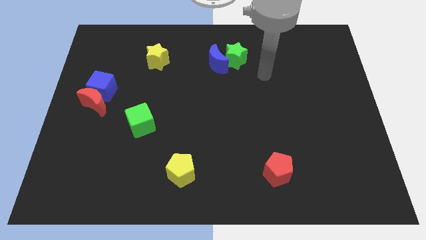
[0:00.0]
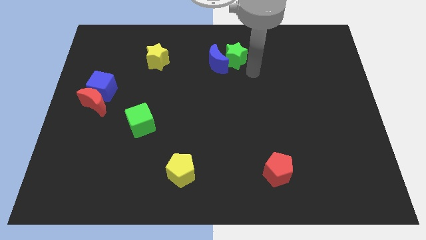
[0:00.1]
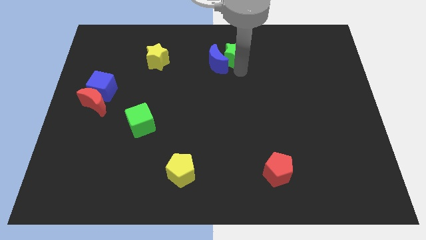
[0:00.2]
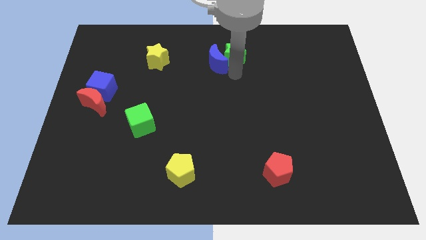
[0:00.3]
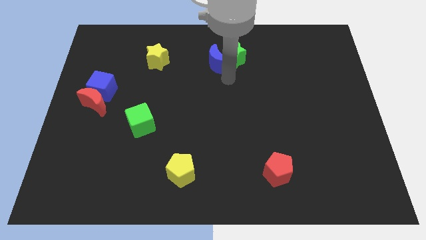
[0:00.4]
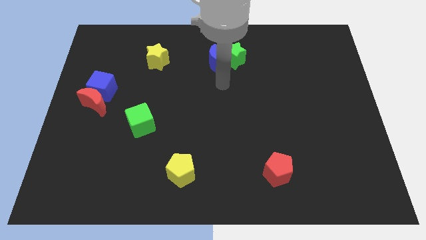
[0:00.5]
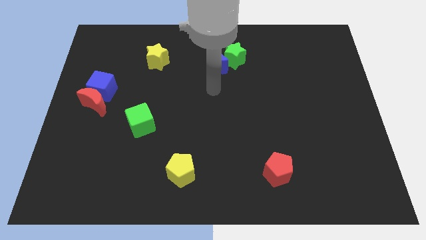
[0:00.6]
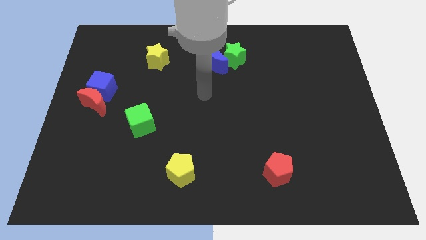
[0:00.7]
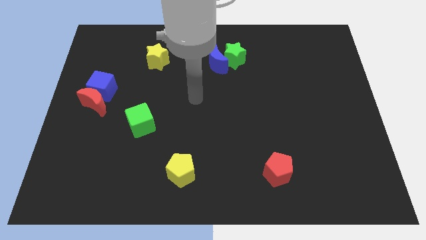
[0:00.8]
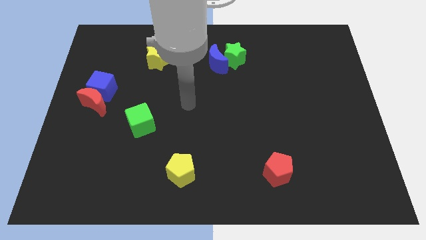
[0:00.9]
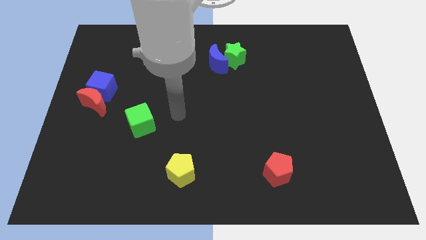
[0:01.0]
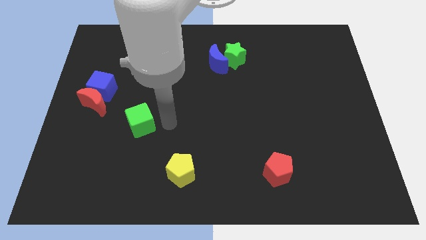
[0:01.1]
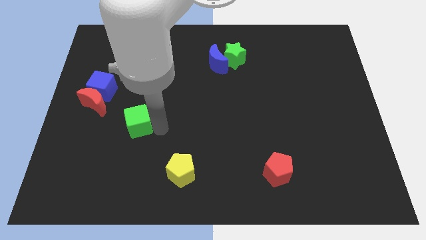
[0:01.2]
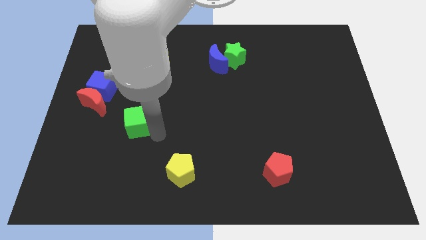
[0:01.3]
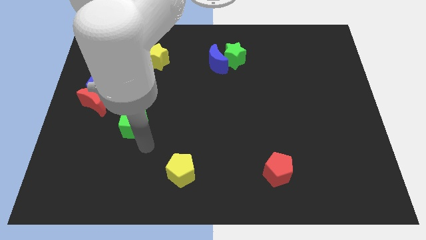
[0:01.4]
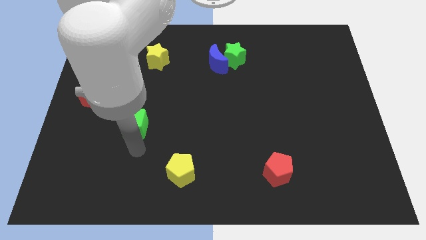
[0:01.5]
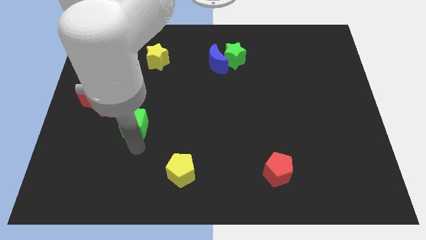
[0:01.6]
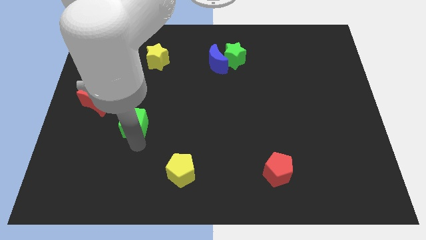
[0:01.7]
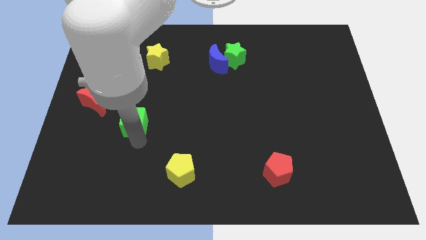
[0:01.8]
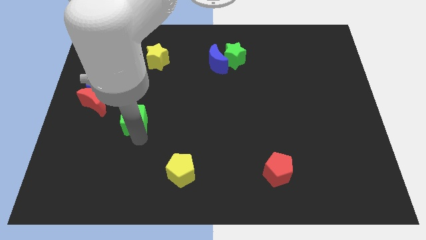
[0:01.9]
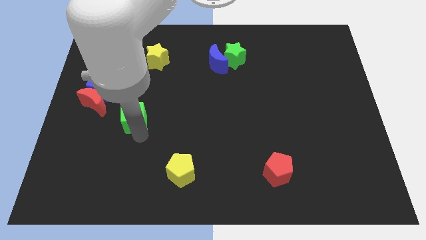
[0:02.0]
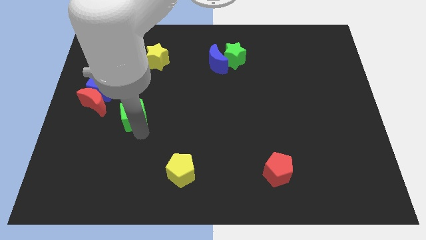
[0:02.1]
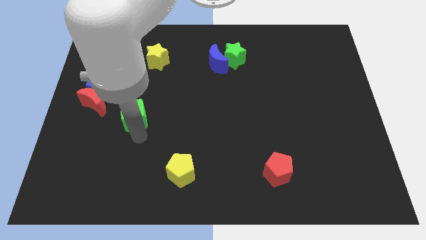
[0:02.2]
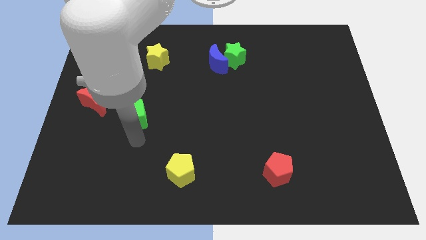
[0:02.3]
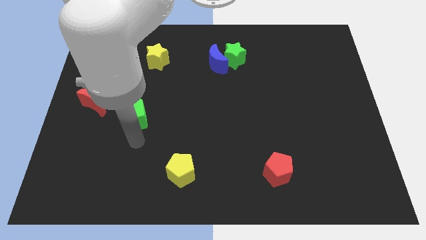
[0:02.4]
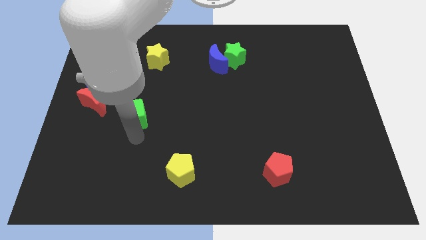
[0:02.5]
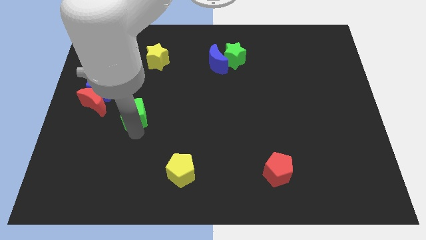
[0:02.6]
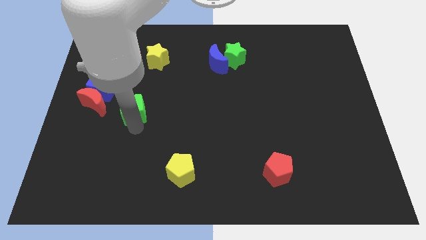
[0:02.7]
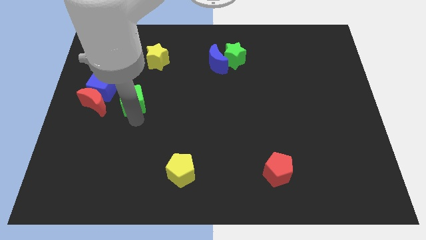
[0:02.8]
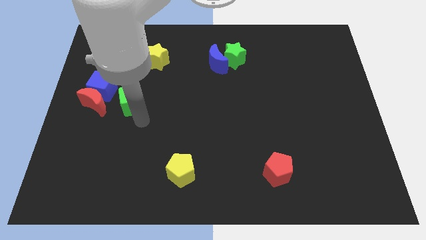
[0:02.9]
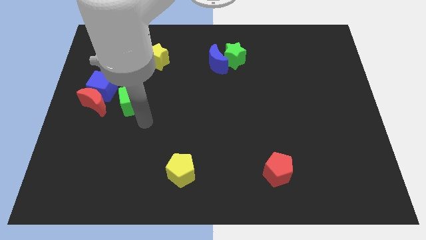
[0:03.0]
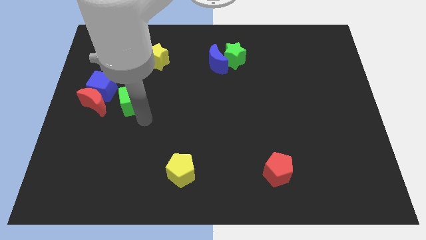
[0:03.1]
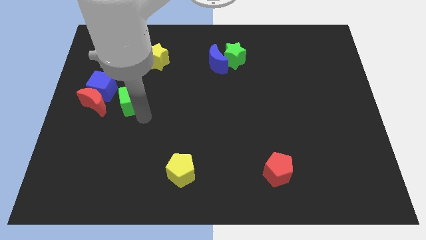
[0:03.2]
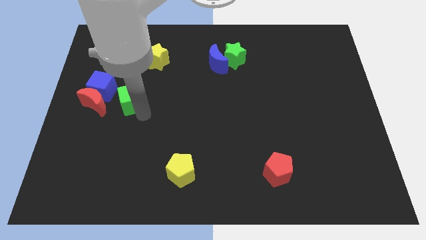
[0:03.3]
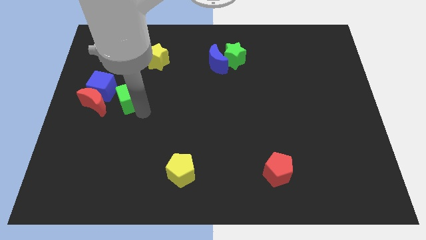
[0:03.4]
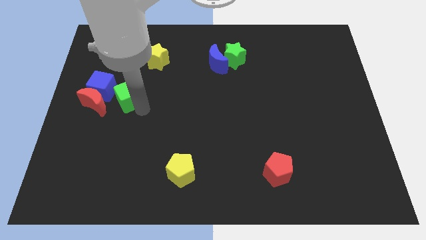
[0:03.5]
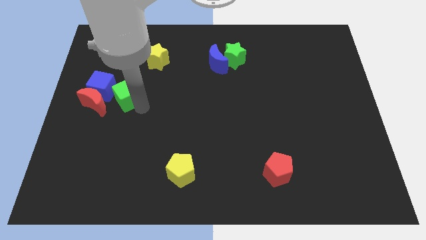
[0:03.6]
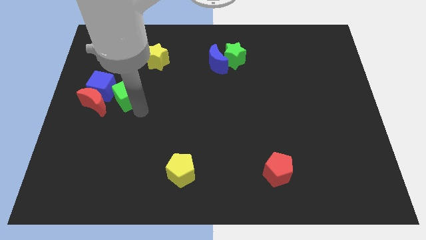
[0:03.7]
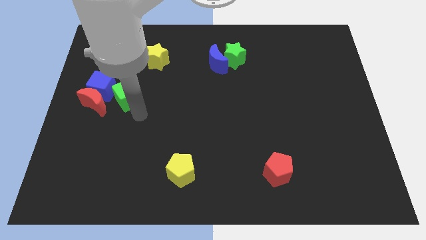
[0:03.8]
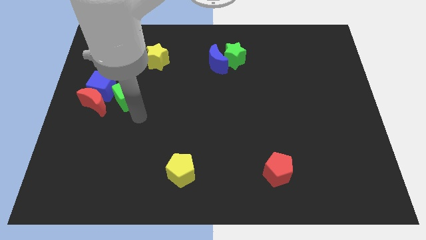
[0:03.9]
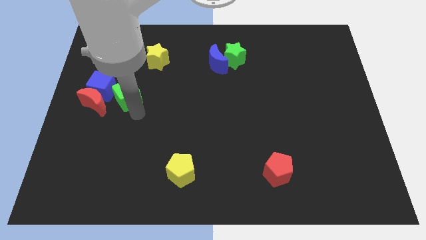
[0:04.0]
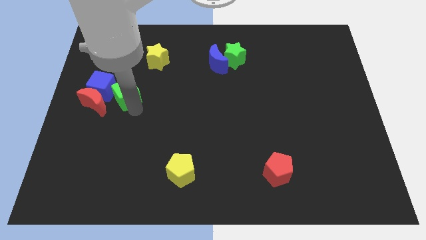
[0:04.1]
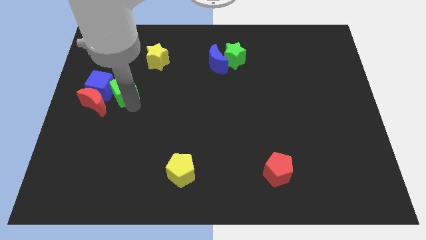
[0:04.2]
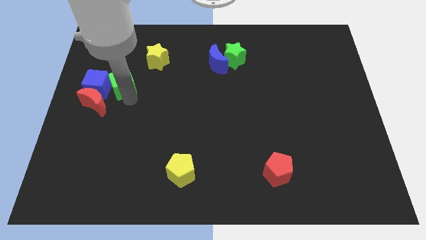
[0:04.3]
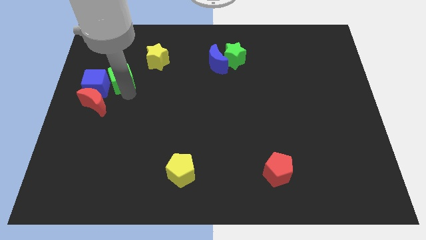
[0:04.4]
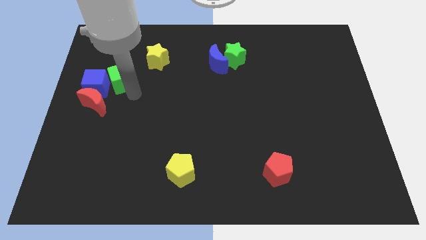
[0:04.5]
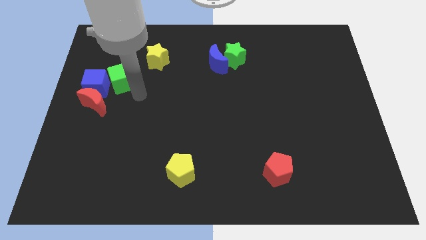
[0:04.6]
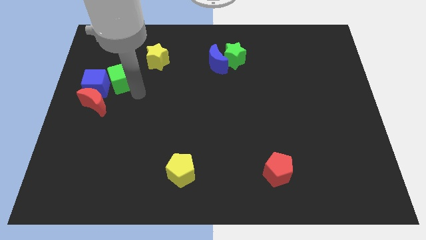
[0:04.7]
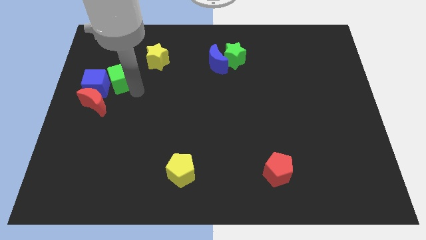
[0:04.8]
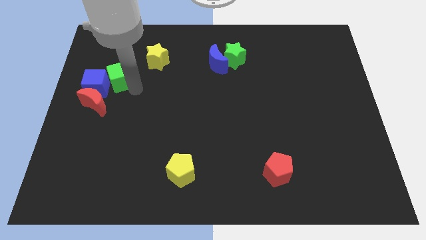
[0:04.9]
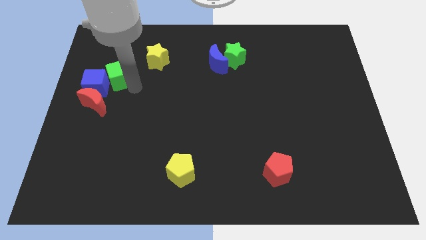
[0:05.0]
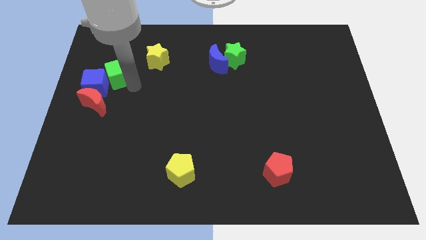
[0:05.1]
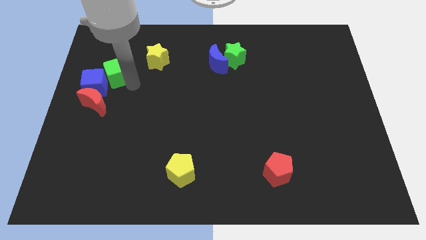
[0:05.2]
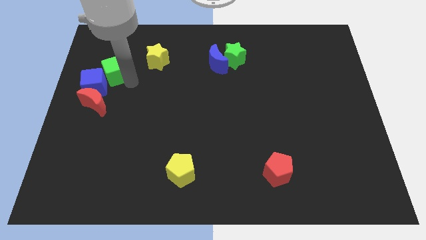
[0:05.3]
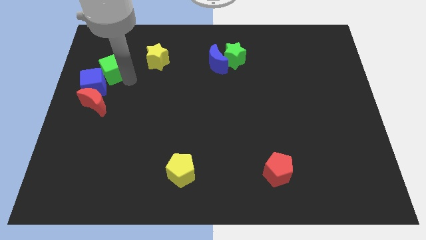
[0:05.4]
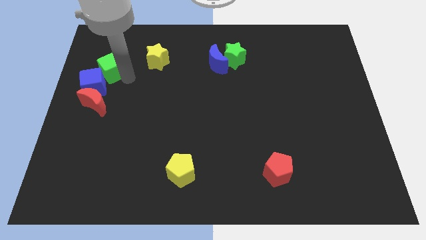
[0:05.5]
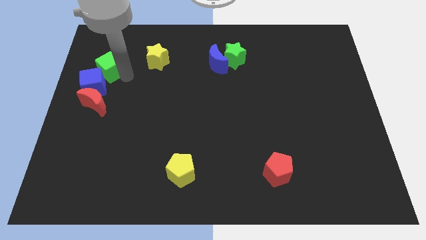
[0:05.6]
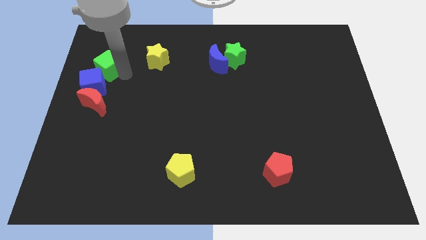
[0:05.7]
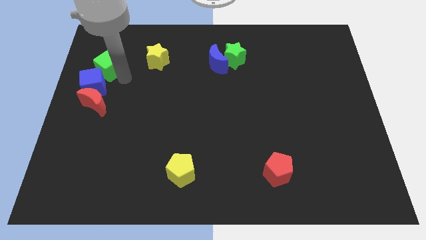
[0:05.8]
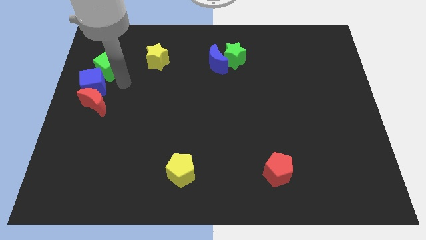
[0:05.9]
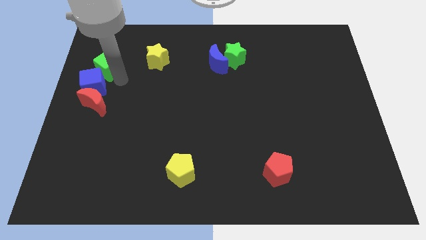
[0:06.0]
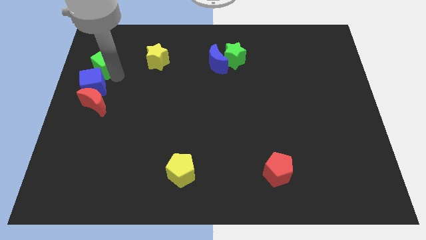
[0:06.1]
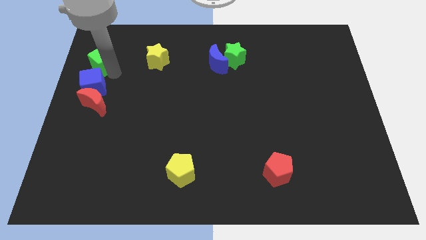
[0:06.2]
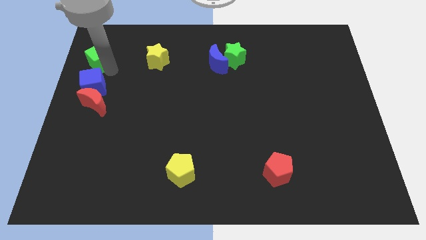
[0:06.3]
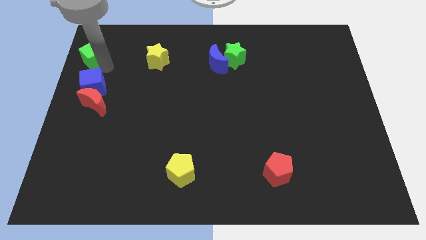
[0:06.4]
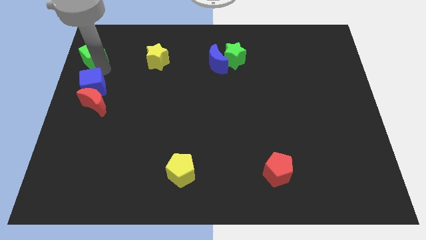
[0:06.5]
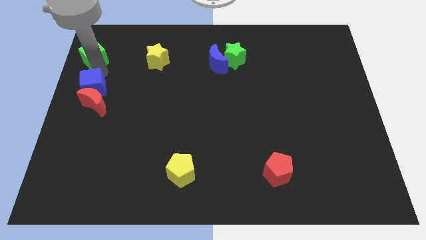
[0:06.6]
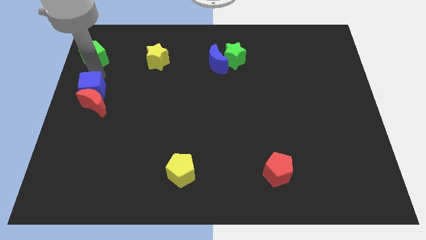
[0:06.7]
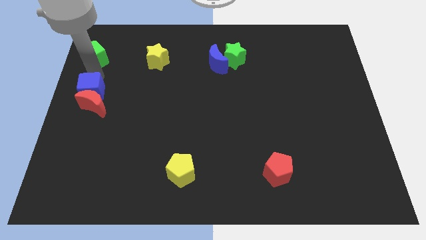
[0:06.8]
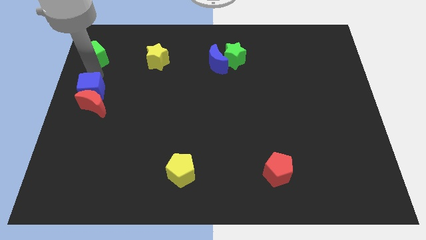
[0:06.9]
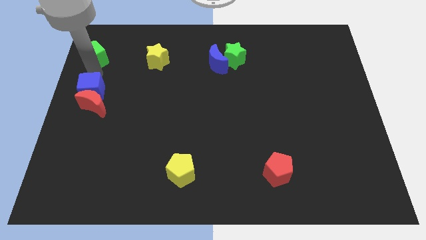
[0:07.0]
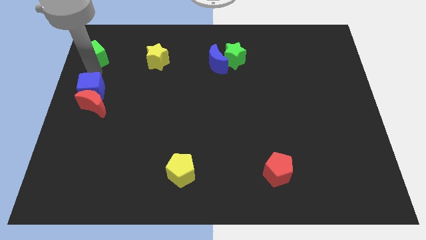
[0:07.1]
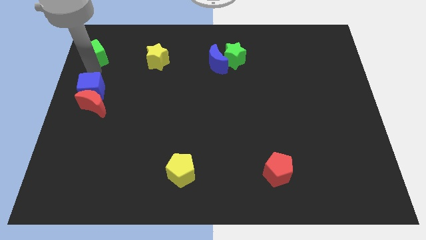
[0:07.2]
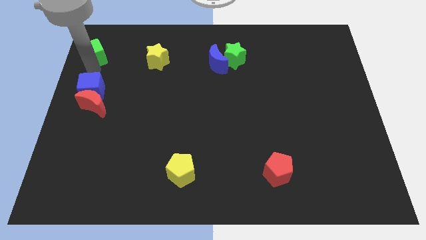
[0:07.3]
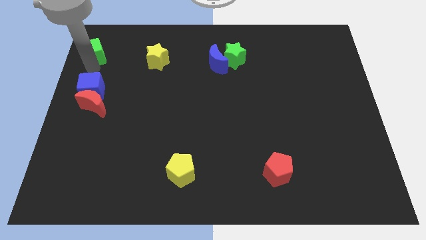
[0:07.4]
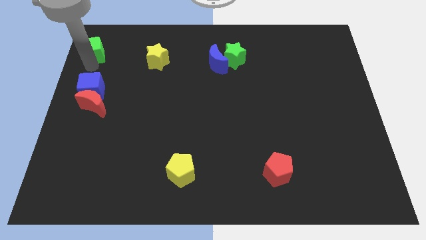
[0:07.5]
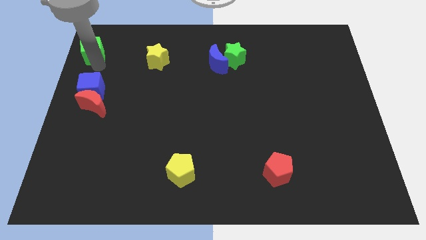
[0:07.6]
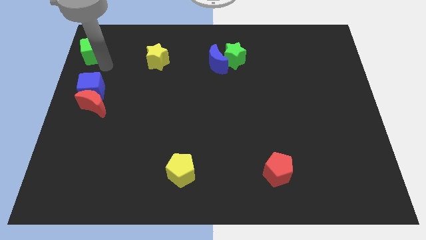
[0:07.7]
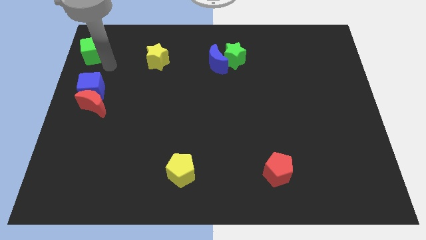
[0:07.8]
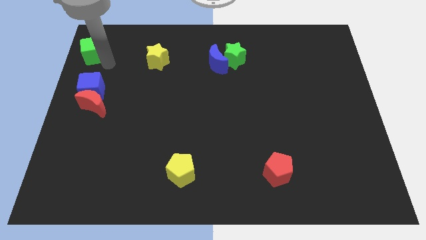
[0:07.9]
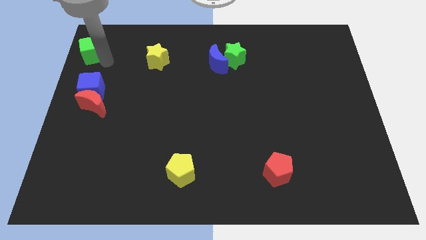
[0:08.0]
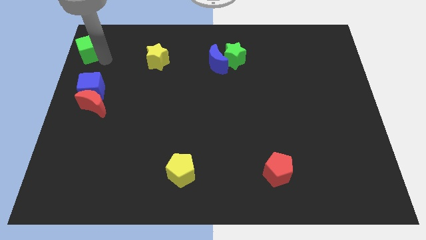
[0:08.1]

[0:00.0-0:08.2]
move the green cube to the top left corner
